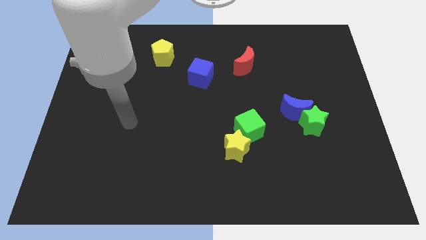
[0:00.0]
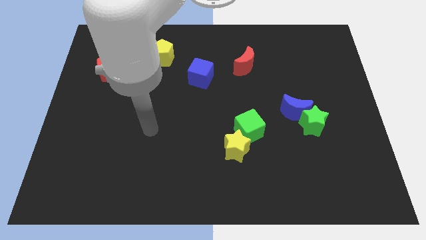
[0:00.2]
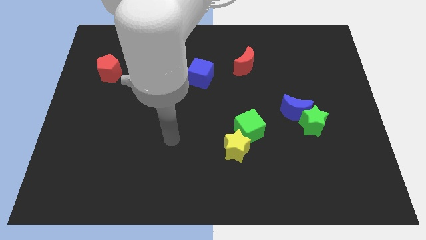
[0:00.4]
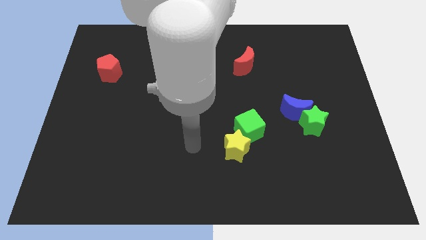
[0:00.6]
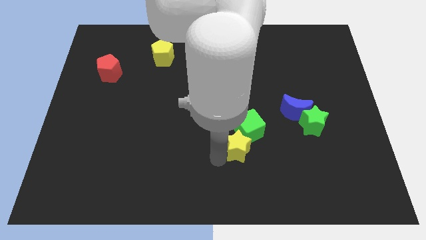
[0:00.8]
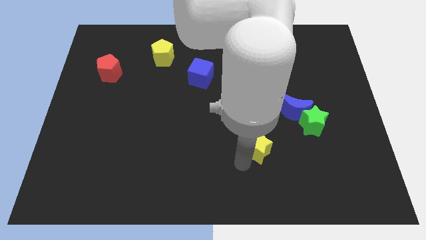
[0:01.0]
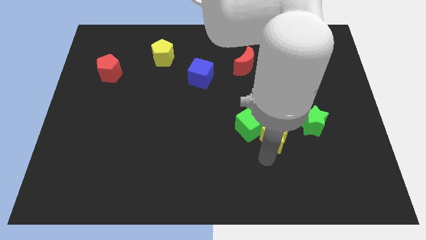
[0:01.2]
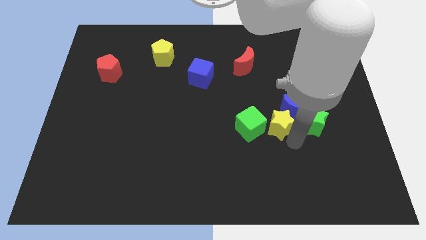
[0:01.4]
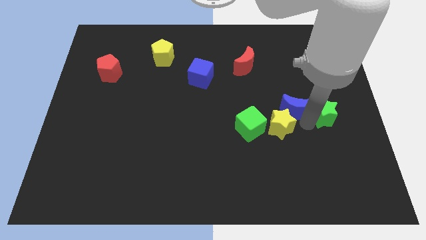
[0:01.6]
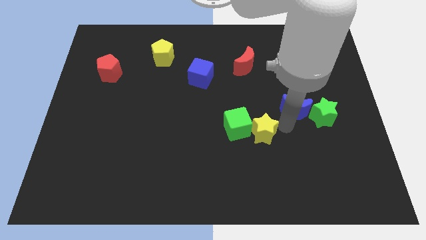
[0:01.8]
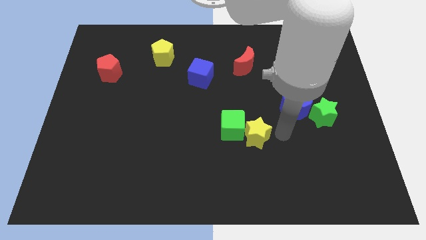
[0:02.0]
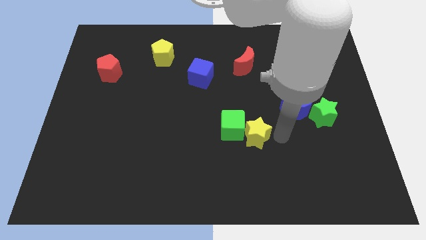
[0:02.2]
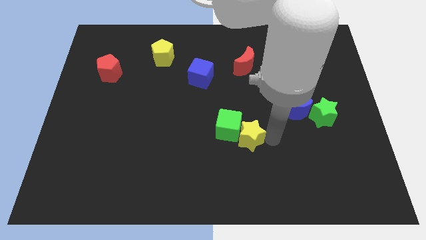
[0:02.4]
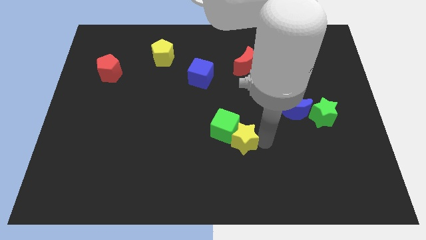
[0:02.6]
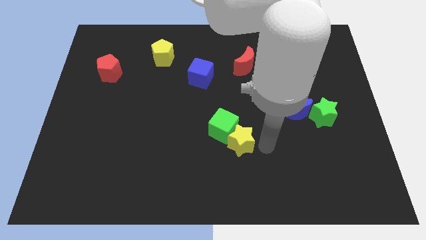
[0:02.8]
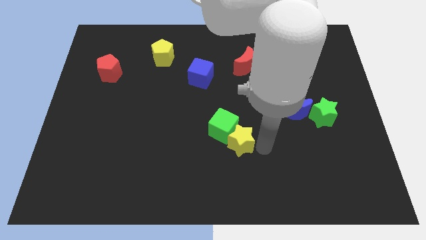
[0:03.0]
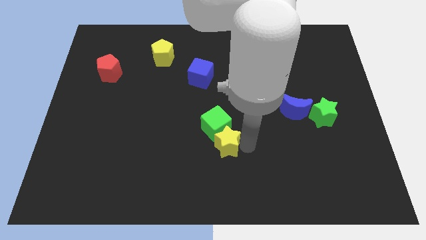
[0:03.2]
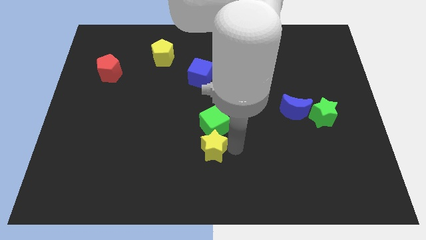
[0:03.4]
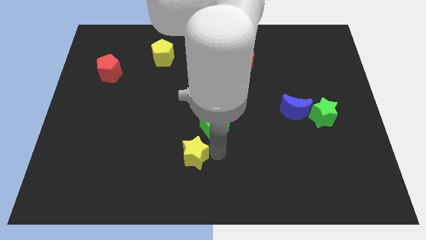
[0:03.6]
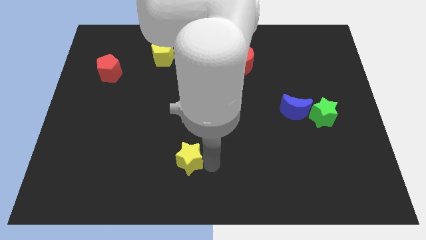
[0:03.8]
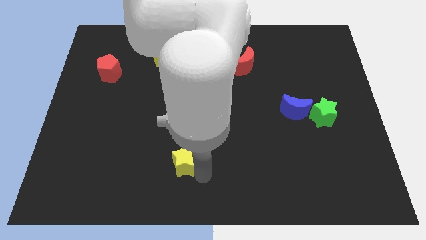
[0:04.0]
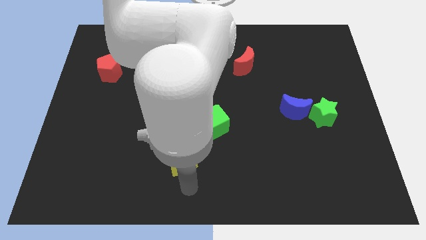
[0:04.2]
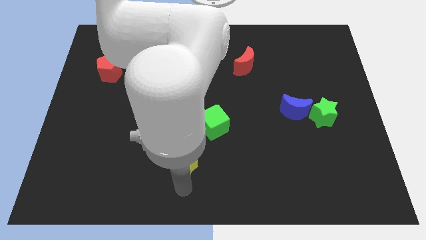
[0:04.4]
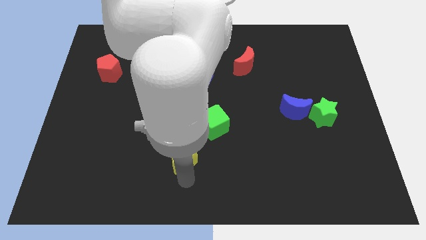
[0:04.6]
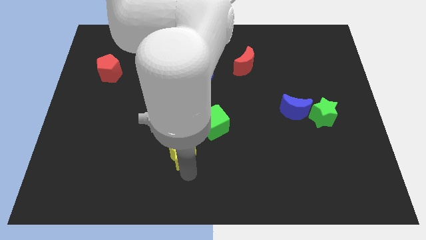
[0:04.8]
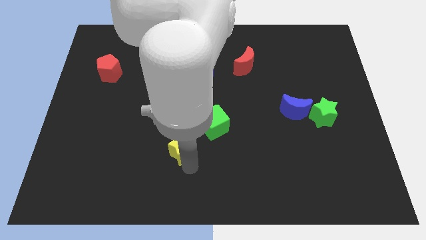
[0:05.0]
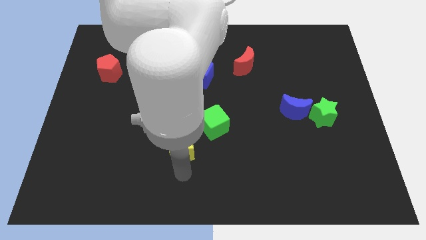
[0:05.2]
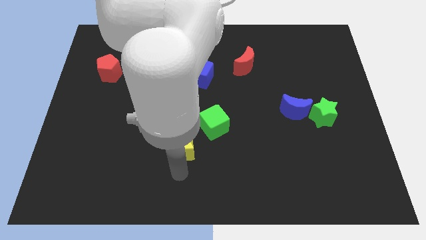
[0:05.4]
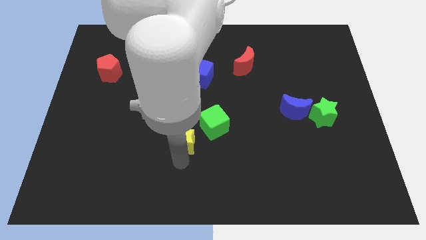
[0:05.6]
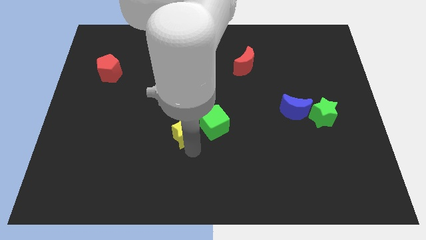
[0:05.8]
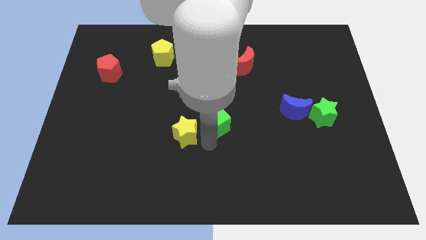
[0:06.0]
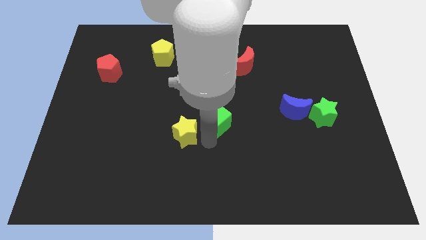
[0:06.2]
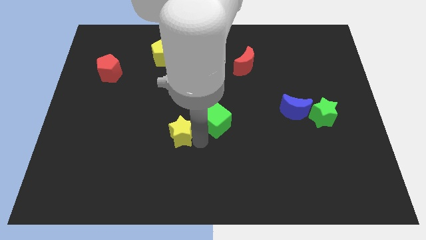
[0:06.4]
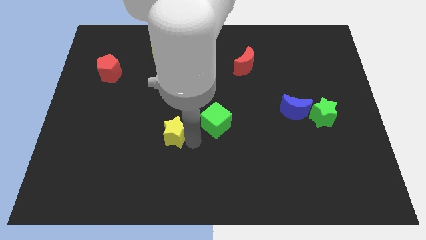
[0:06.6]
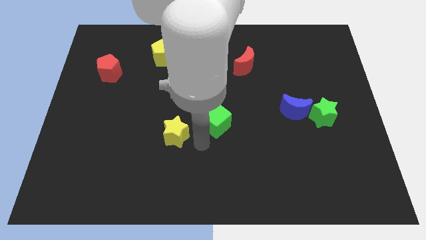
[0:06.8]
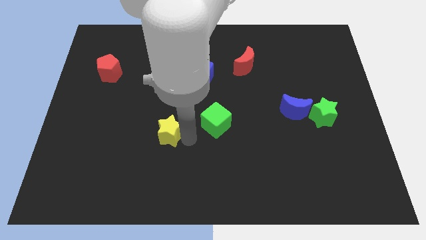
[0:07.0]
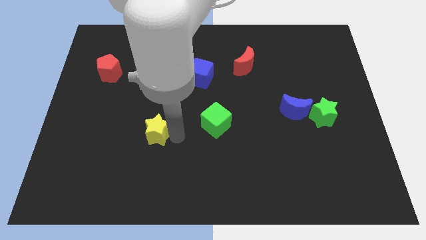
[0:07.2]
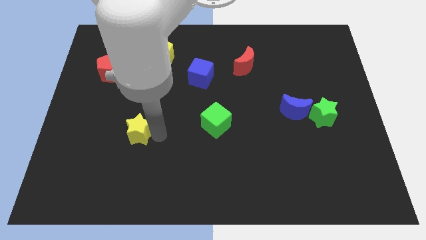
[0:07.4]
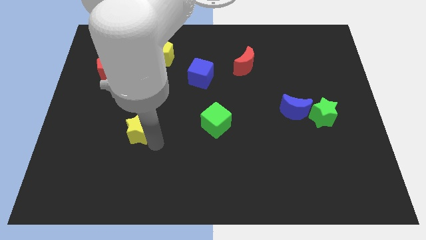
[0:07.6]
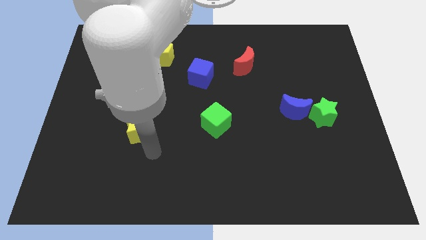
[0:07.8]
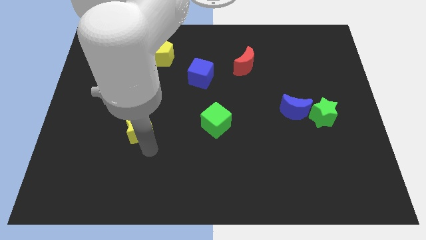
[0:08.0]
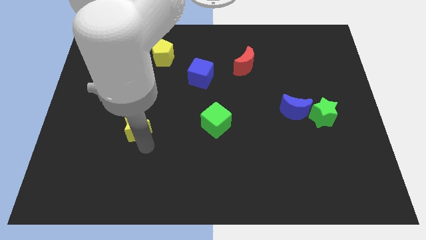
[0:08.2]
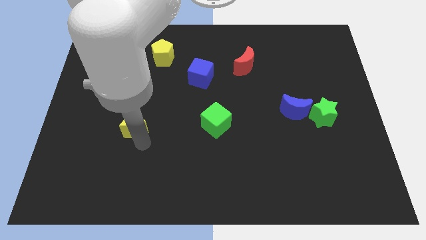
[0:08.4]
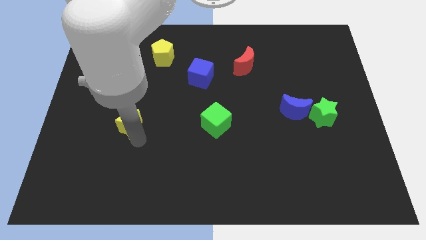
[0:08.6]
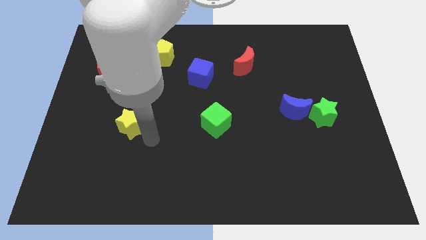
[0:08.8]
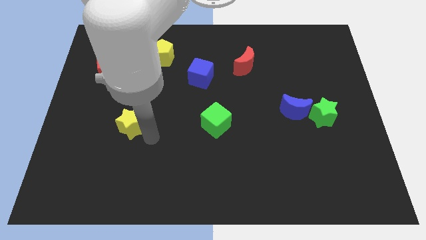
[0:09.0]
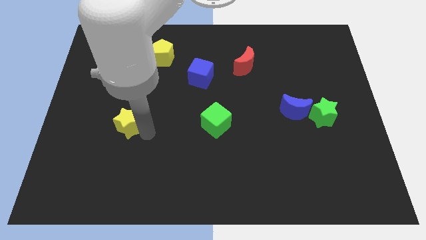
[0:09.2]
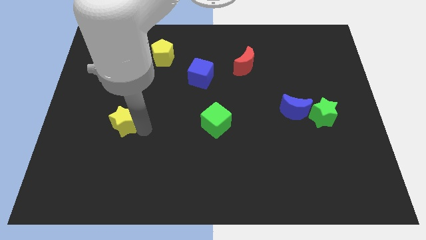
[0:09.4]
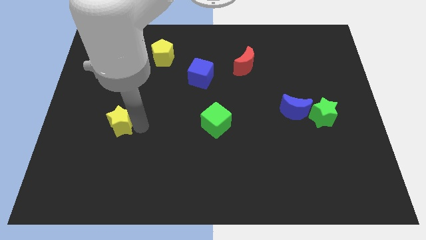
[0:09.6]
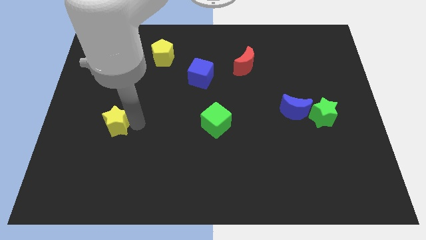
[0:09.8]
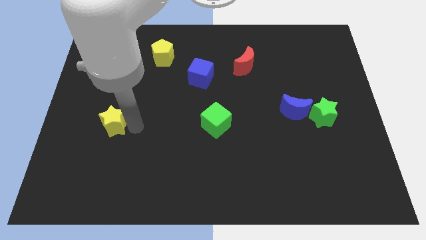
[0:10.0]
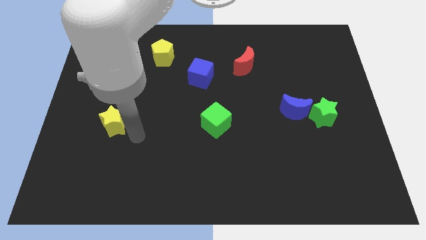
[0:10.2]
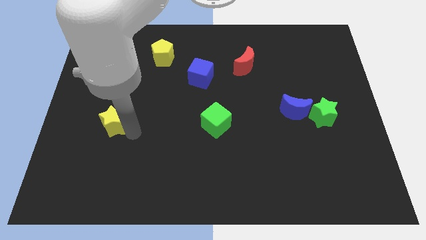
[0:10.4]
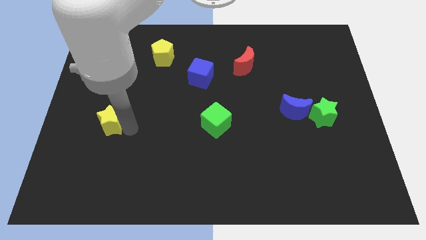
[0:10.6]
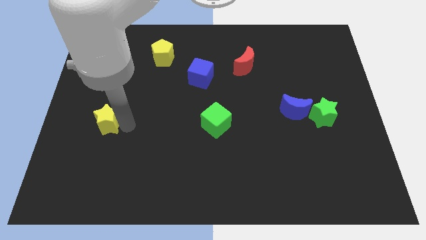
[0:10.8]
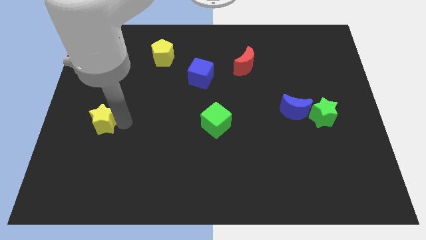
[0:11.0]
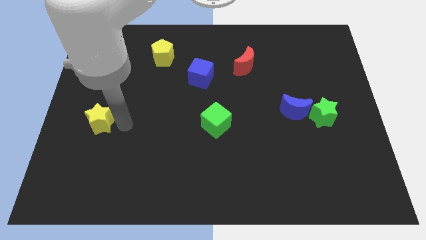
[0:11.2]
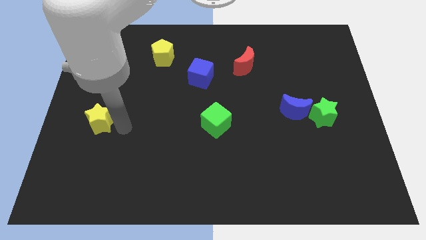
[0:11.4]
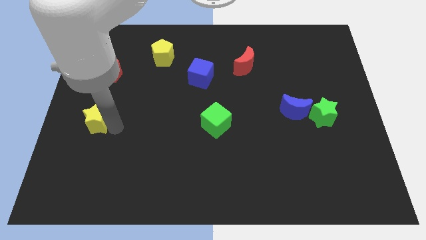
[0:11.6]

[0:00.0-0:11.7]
slide the yellow star to the left side of the board

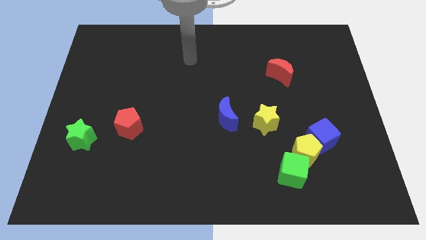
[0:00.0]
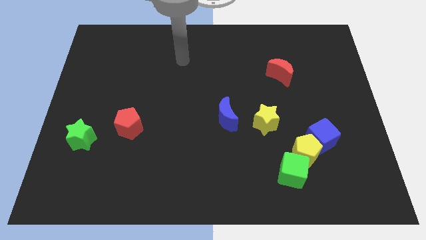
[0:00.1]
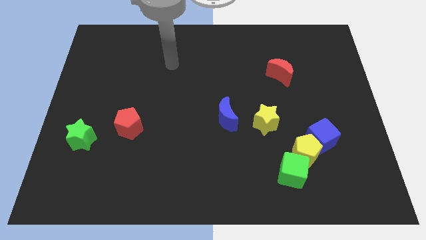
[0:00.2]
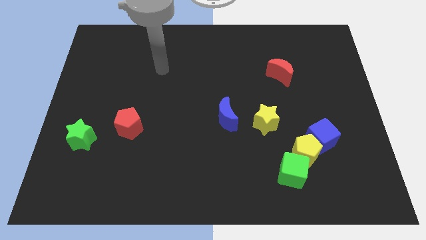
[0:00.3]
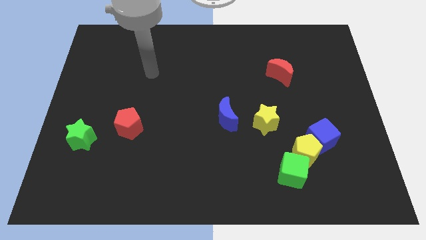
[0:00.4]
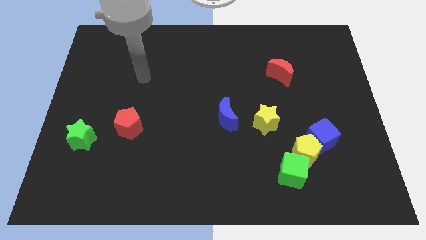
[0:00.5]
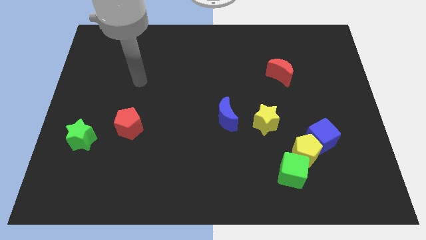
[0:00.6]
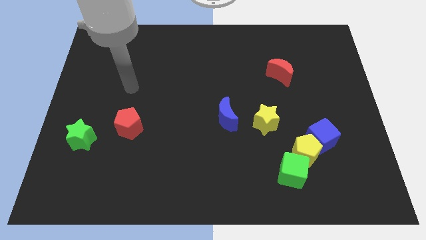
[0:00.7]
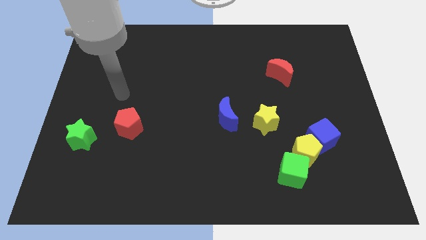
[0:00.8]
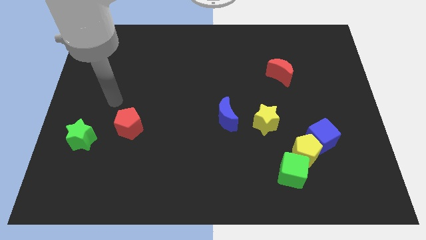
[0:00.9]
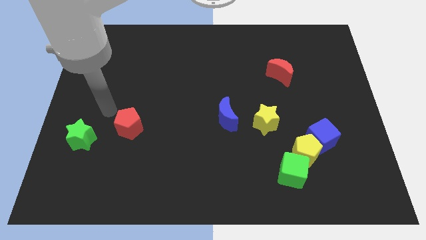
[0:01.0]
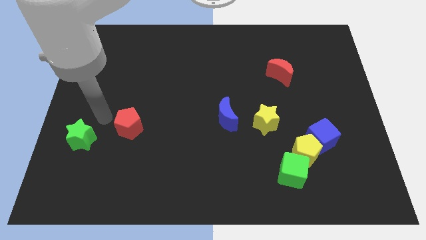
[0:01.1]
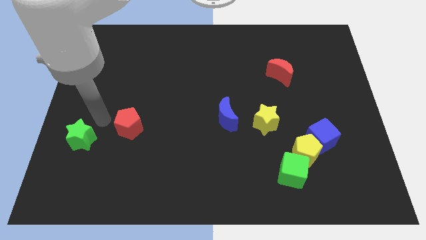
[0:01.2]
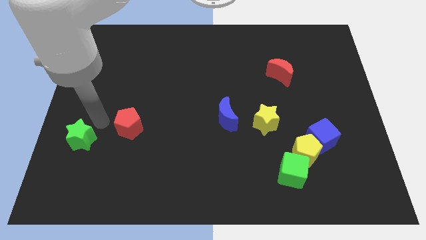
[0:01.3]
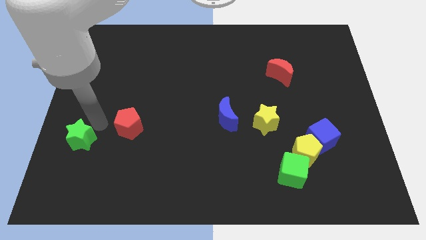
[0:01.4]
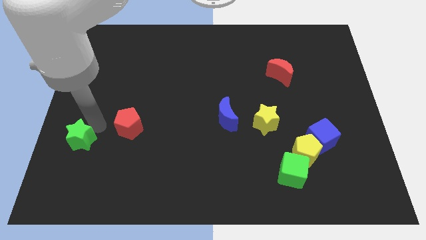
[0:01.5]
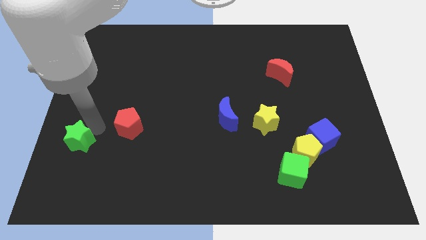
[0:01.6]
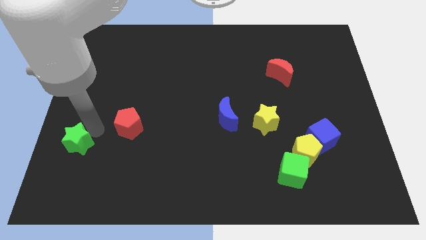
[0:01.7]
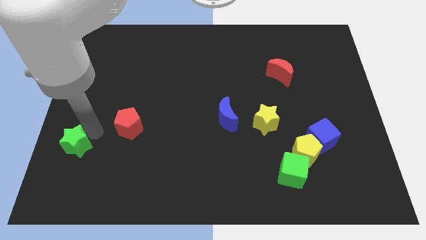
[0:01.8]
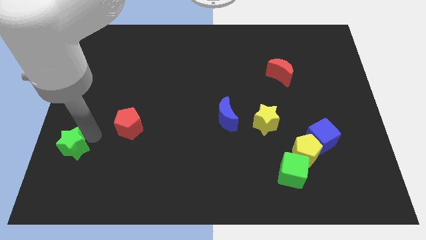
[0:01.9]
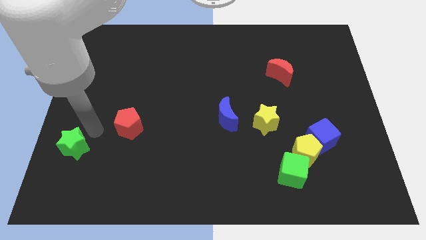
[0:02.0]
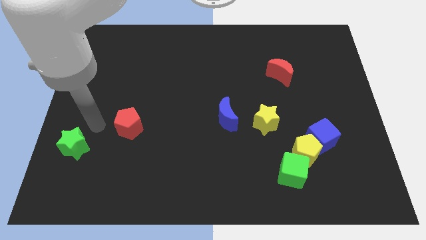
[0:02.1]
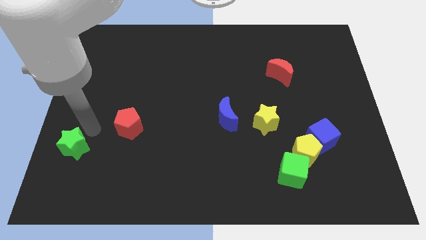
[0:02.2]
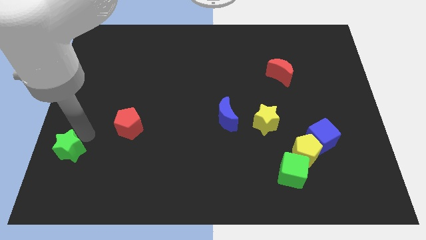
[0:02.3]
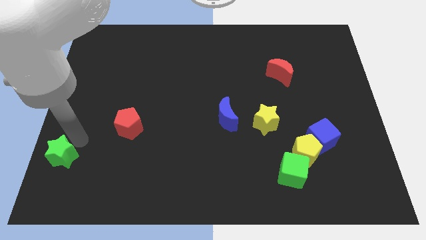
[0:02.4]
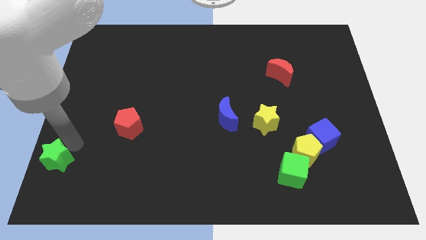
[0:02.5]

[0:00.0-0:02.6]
push the green star to the bottom left corner
